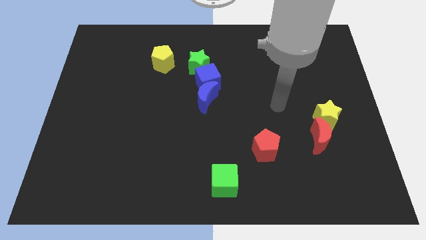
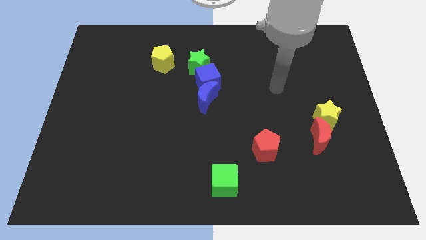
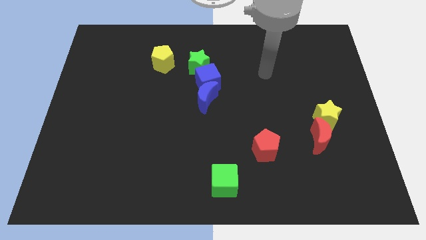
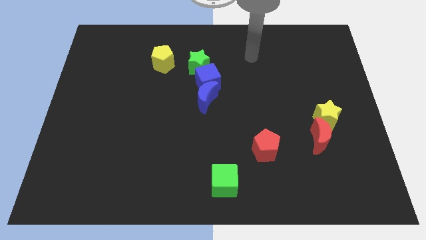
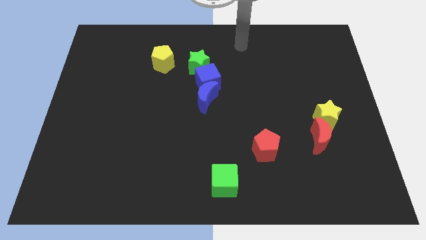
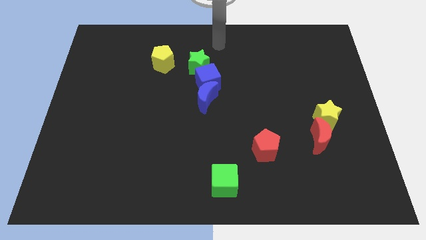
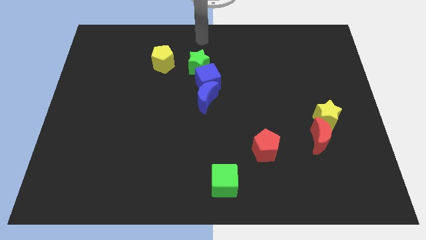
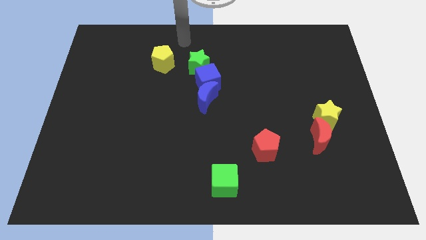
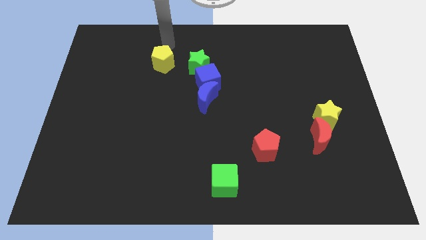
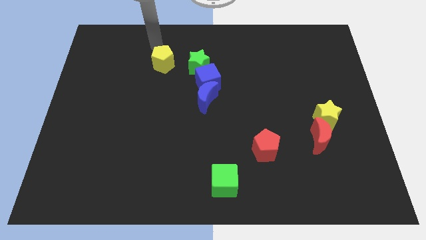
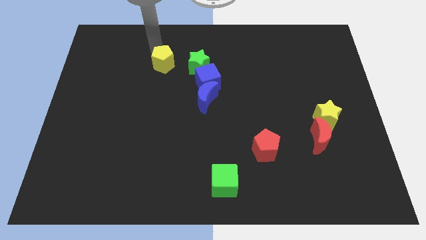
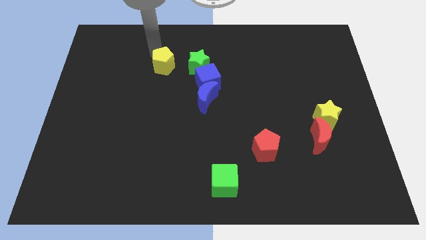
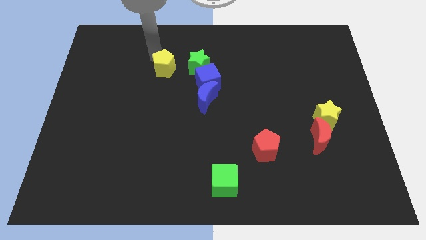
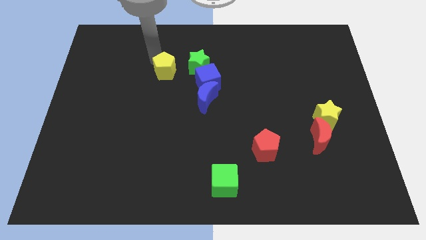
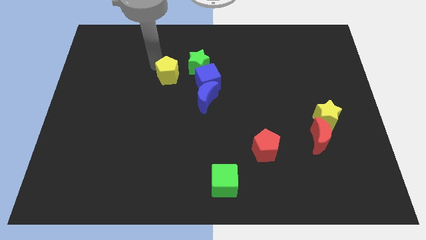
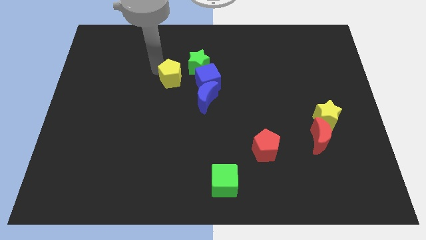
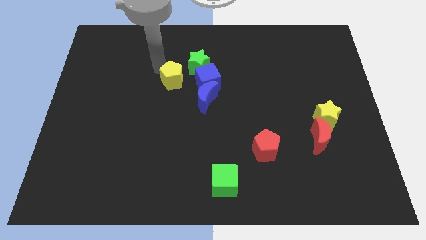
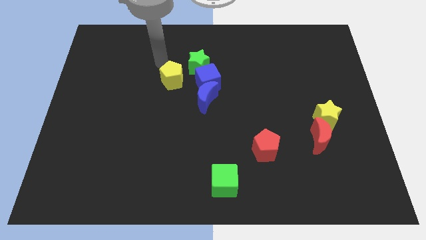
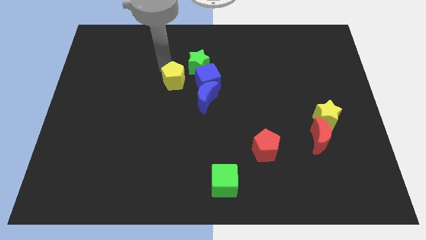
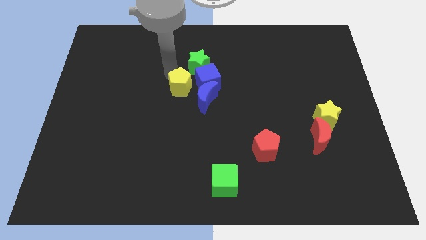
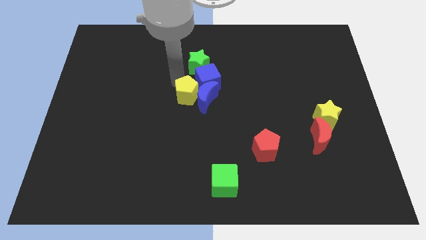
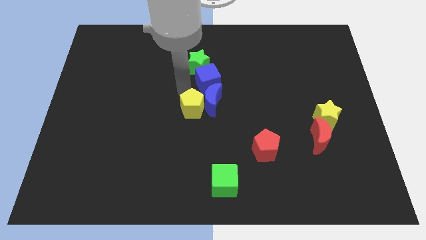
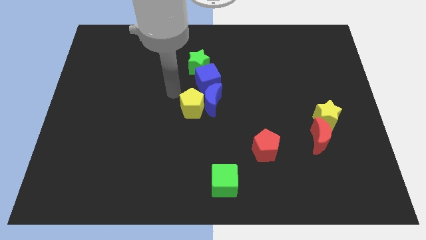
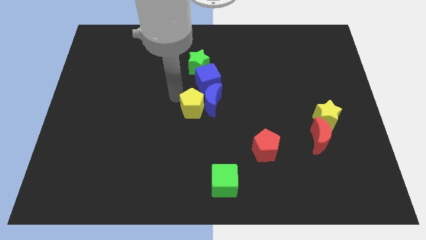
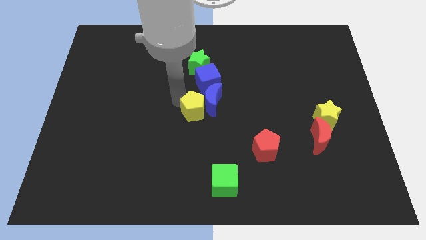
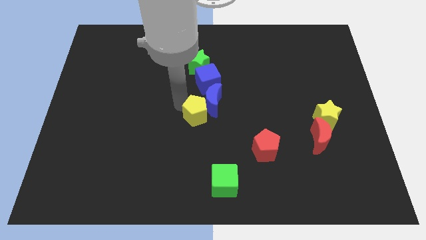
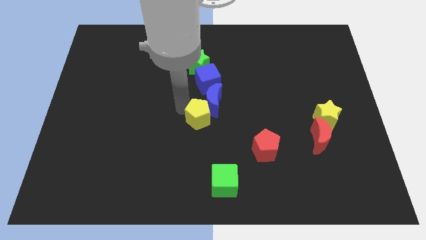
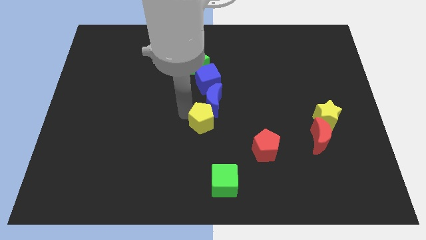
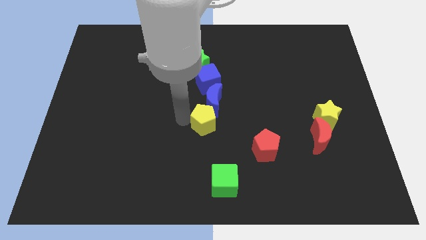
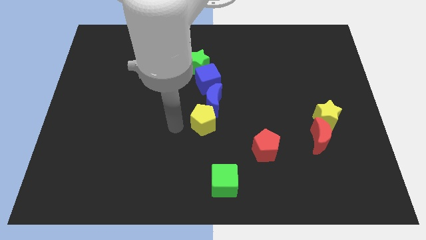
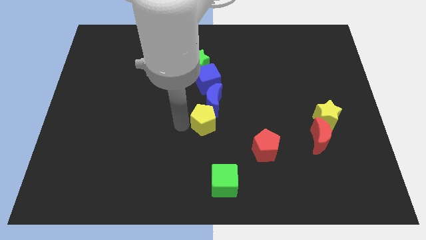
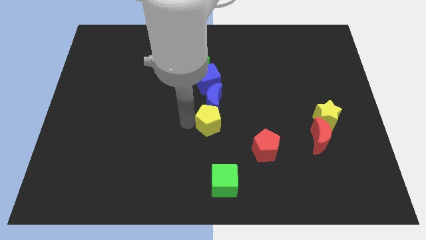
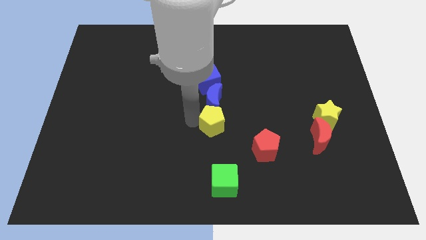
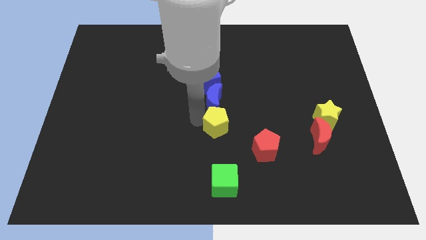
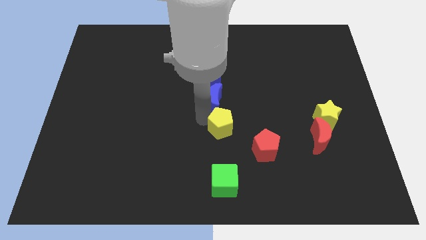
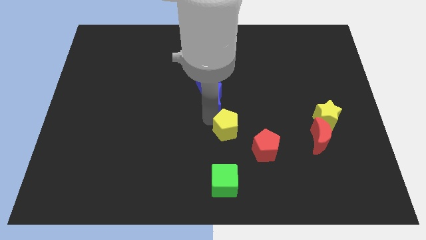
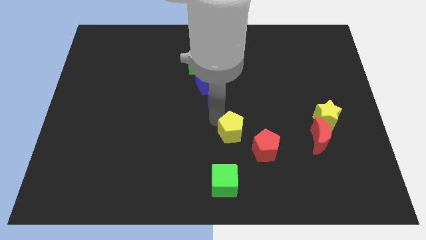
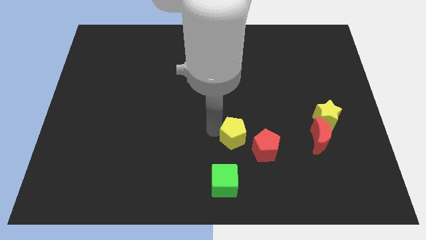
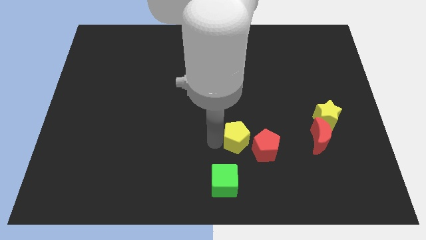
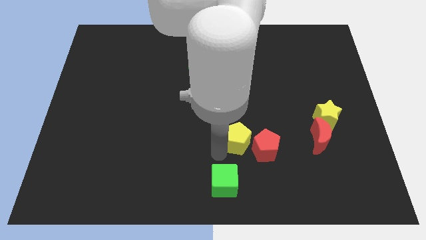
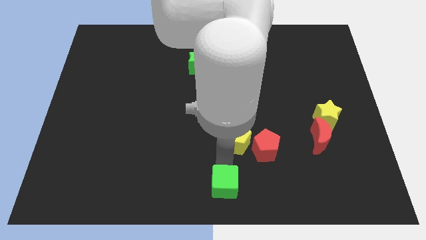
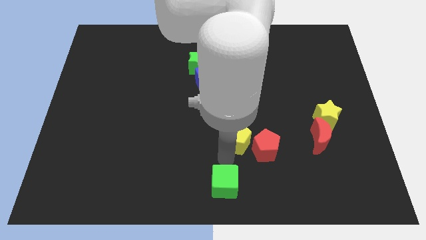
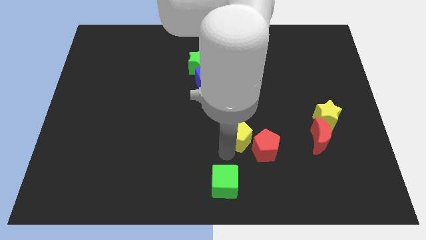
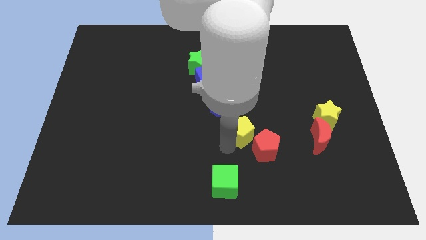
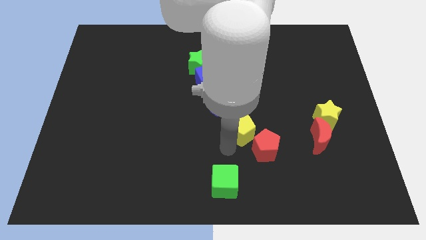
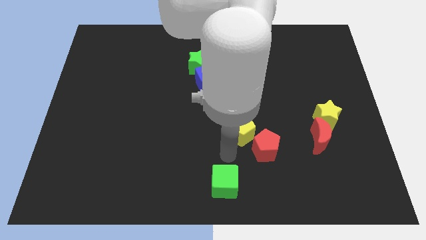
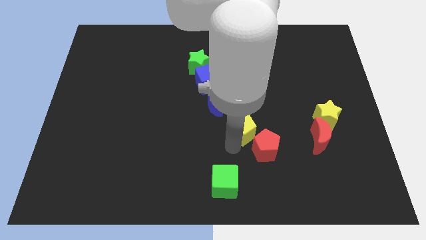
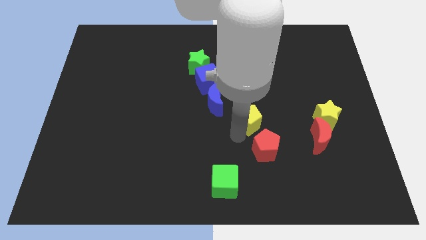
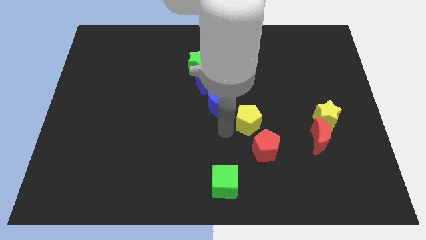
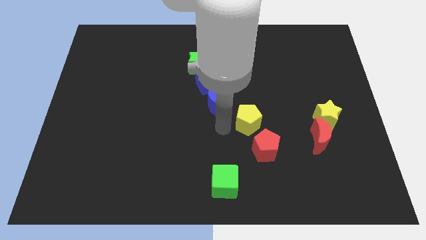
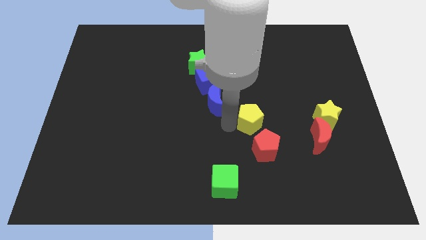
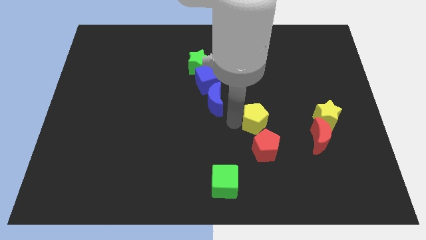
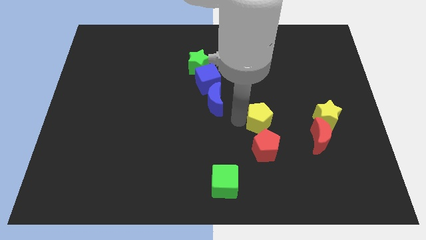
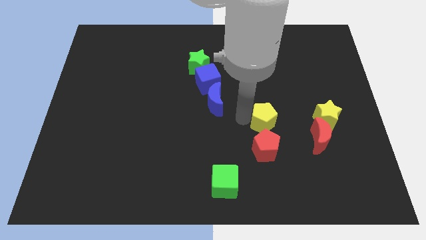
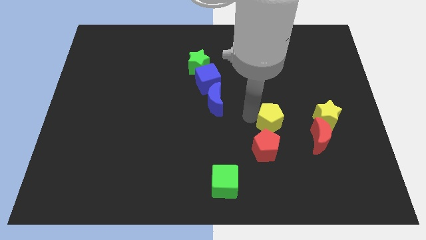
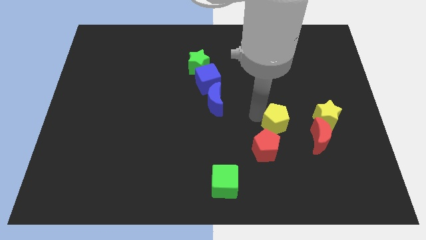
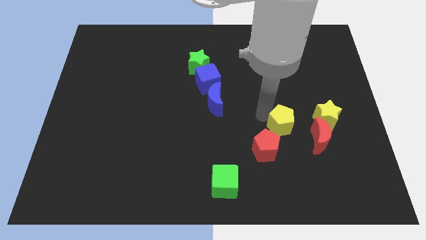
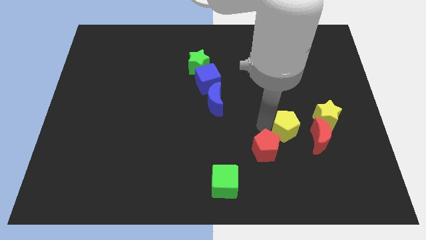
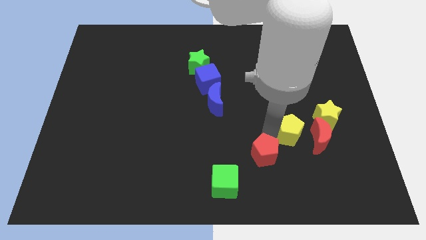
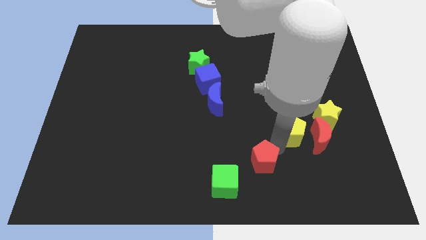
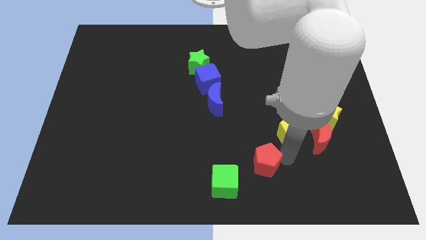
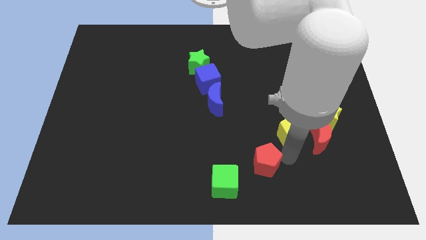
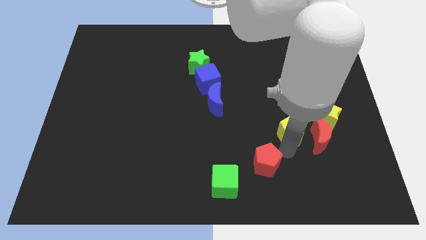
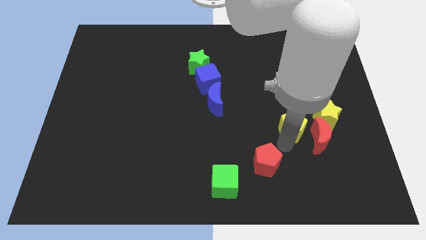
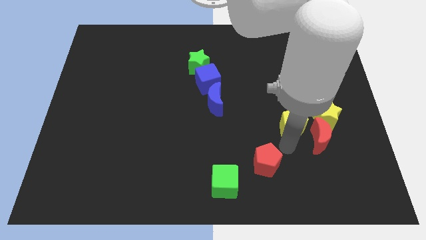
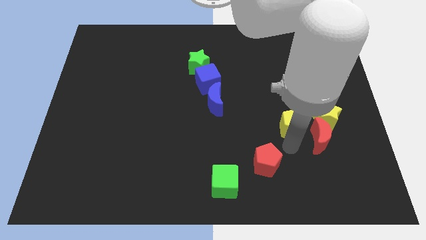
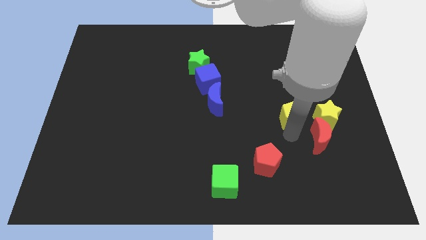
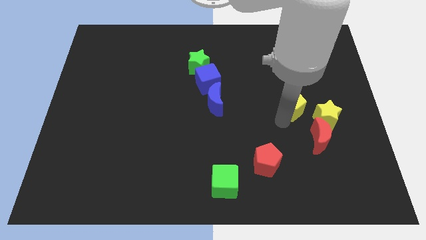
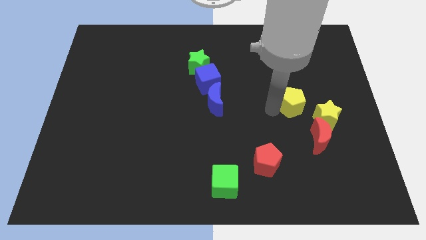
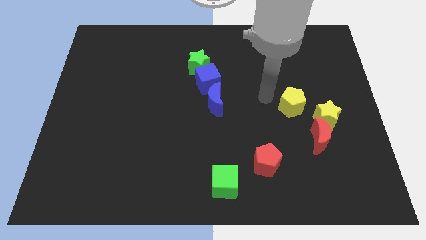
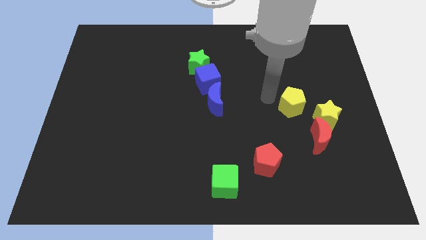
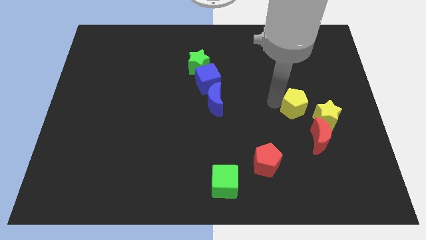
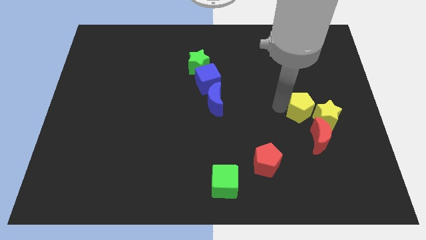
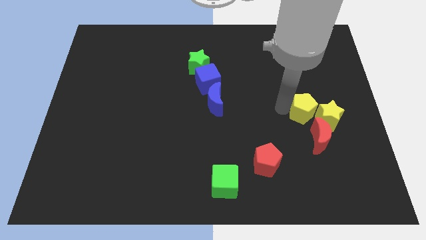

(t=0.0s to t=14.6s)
push the yellow pentagon towards the yellow star

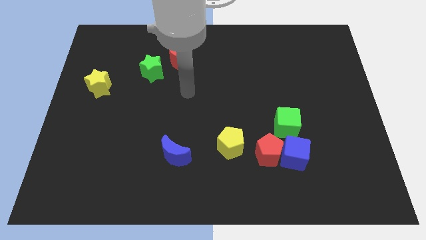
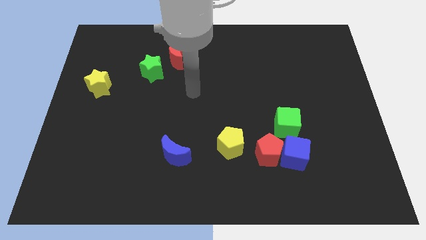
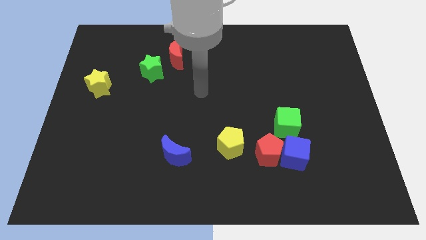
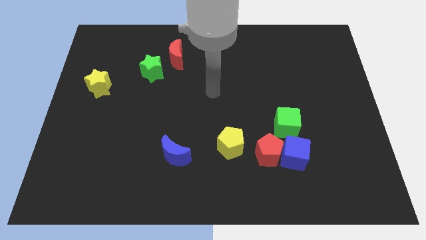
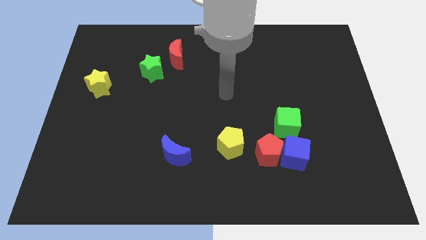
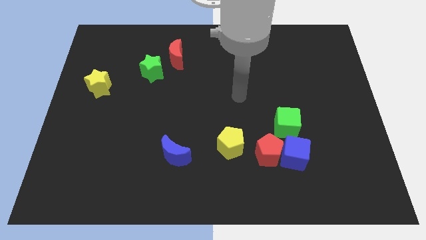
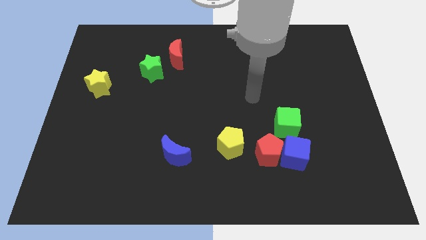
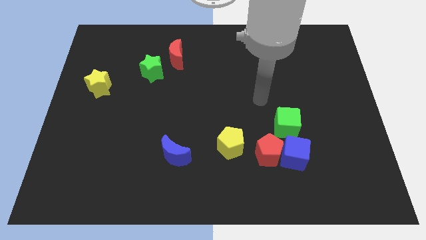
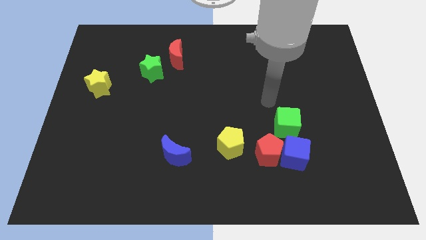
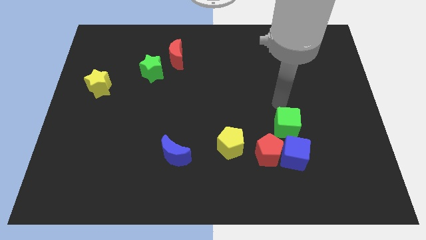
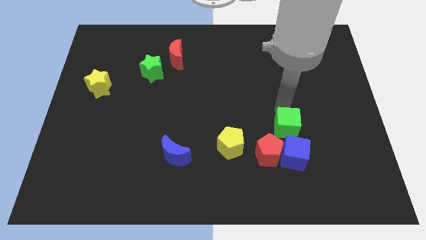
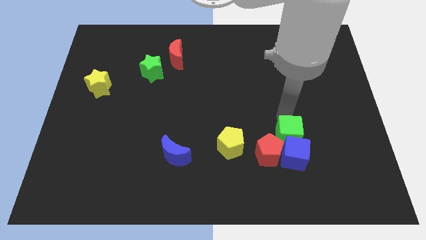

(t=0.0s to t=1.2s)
push the green cube next to the blue cube
